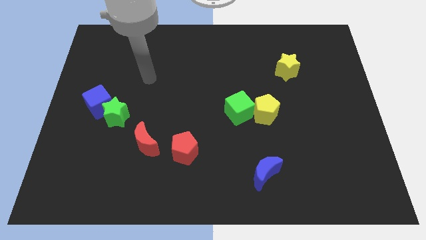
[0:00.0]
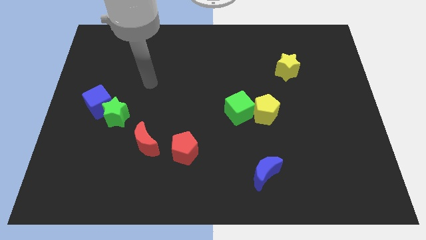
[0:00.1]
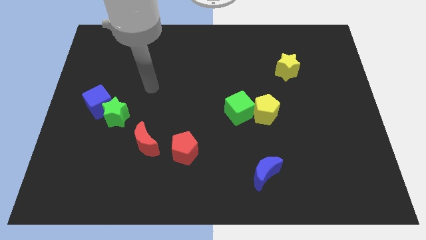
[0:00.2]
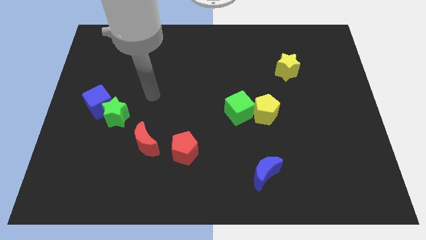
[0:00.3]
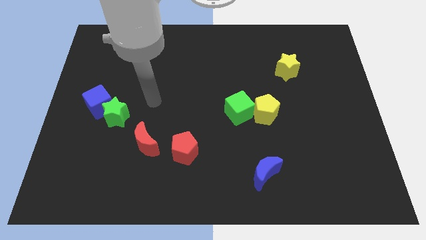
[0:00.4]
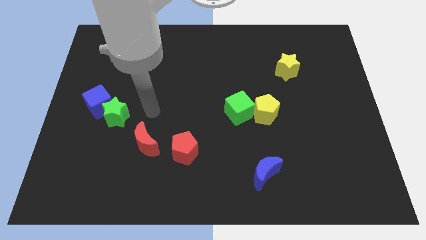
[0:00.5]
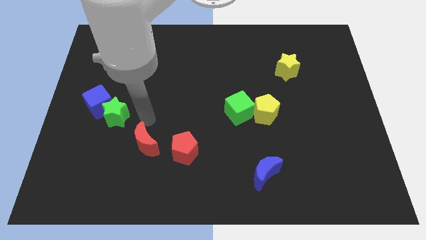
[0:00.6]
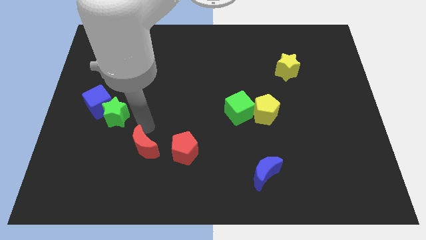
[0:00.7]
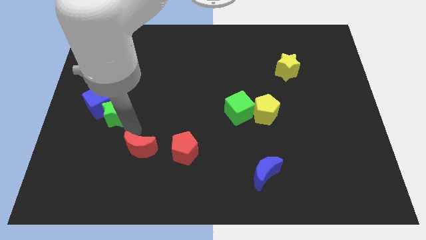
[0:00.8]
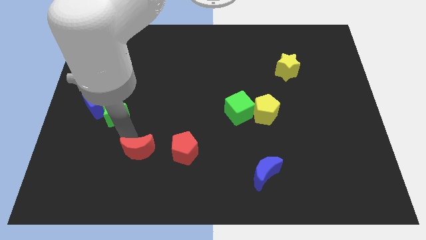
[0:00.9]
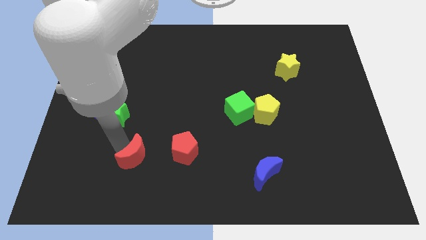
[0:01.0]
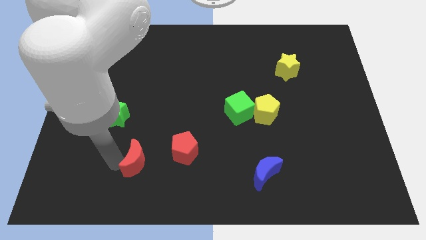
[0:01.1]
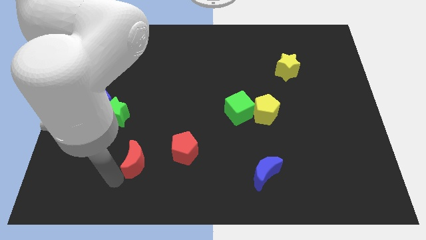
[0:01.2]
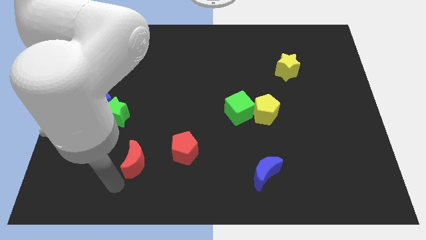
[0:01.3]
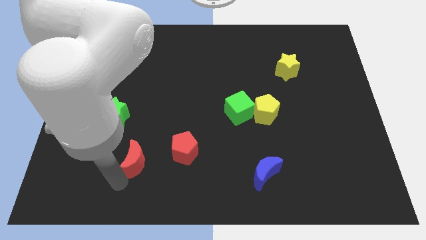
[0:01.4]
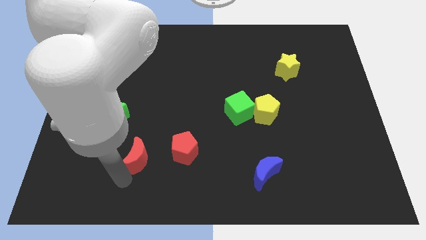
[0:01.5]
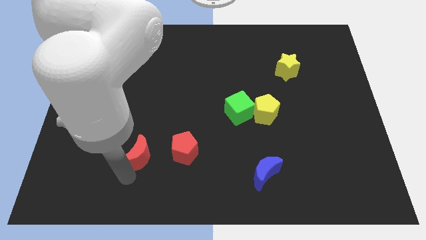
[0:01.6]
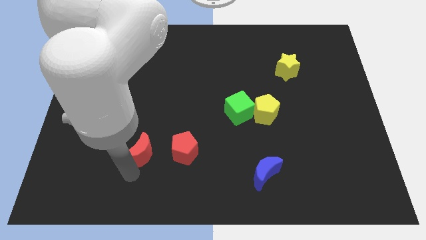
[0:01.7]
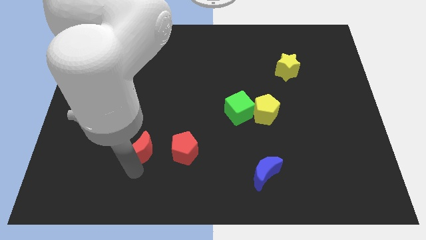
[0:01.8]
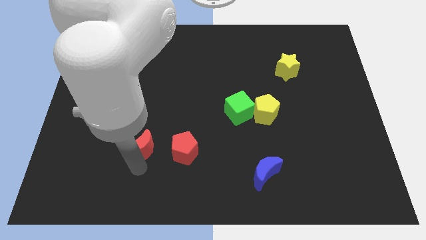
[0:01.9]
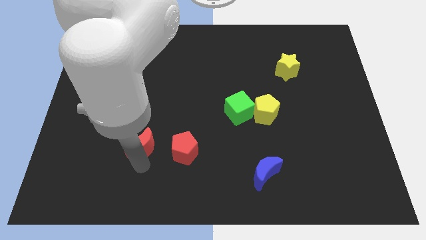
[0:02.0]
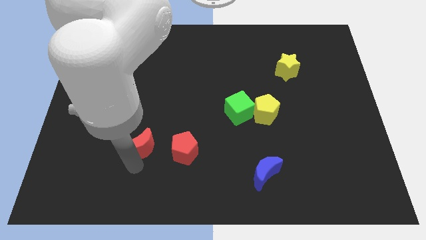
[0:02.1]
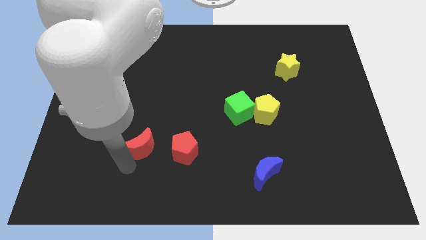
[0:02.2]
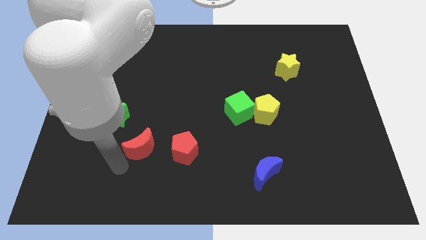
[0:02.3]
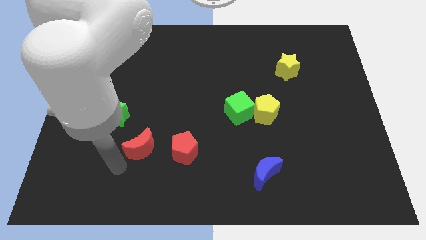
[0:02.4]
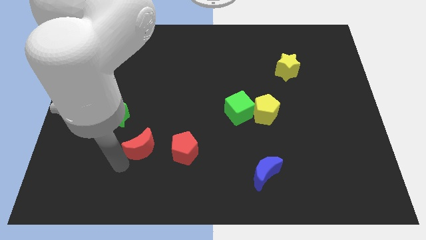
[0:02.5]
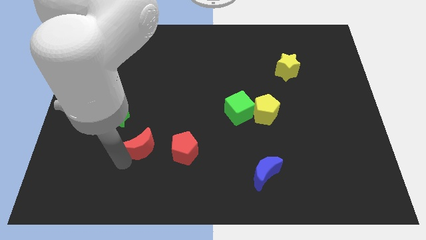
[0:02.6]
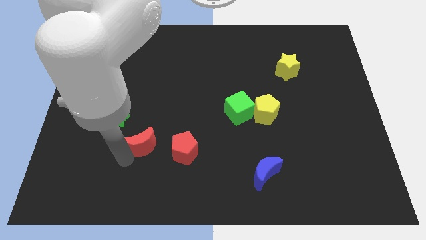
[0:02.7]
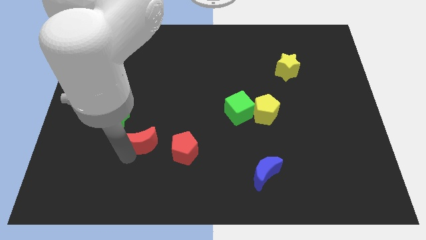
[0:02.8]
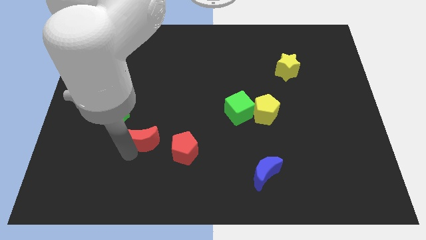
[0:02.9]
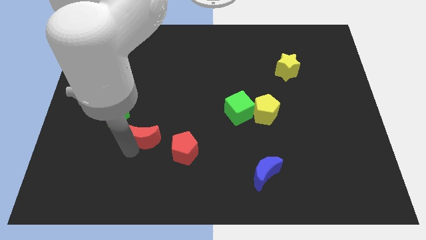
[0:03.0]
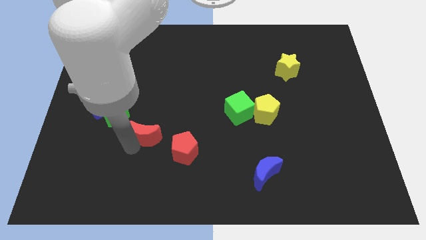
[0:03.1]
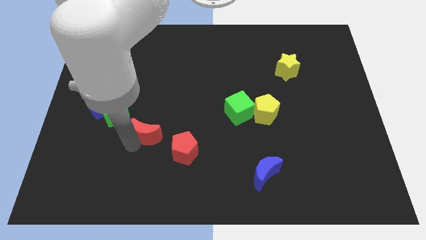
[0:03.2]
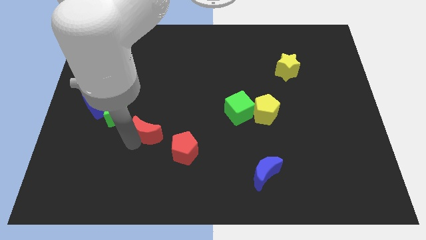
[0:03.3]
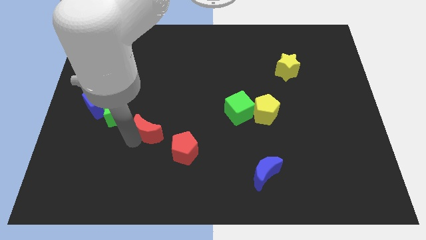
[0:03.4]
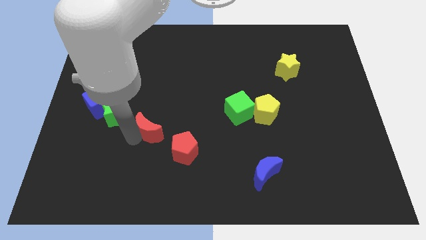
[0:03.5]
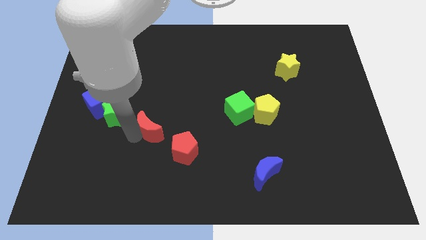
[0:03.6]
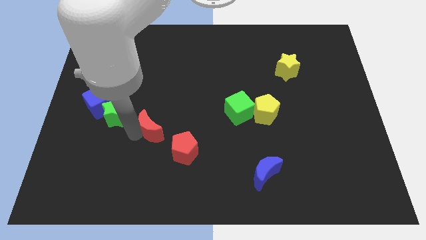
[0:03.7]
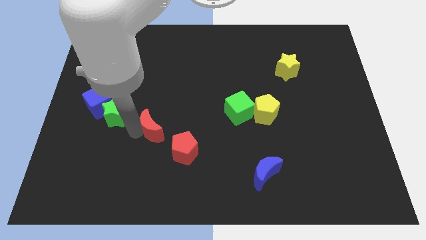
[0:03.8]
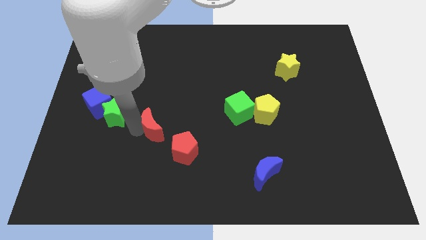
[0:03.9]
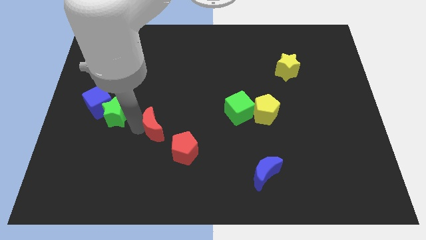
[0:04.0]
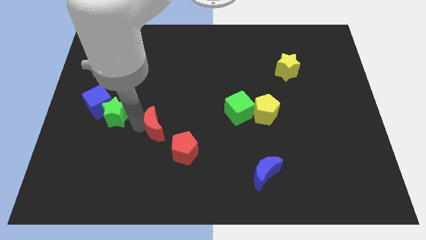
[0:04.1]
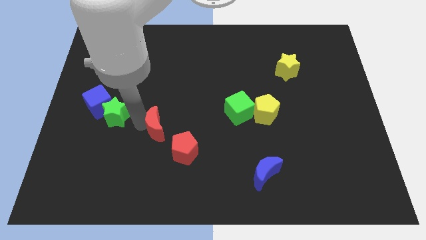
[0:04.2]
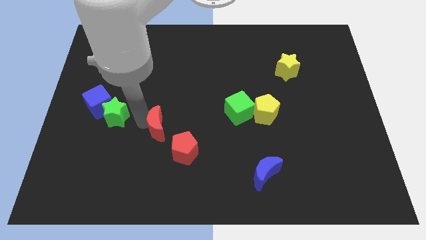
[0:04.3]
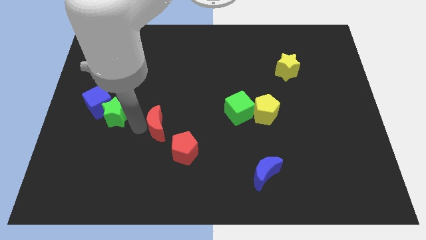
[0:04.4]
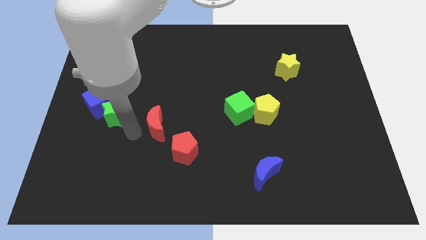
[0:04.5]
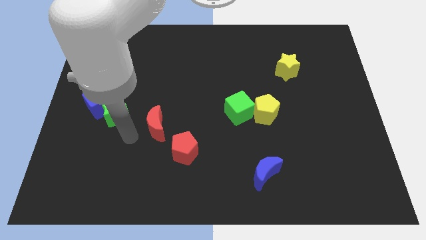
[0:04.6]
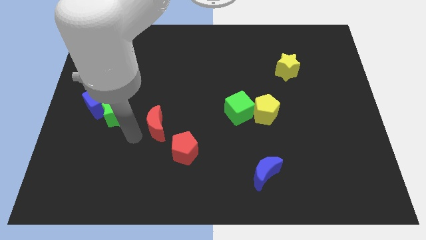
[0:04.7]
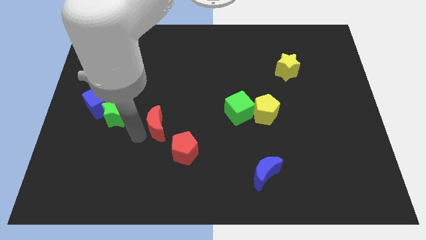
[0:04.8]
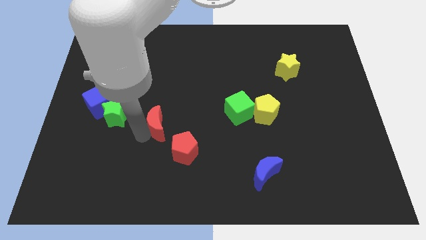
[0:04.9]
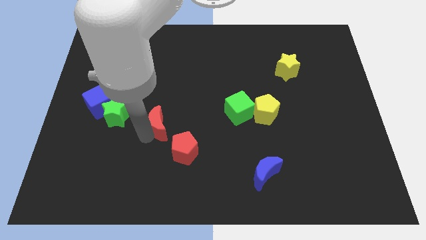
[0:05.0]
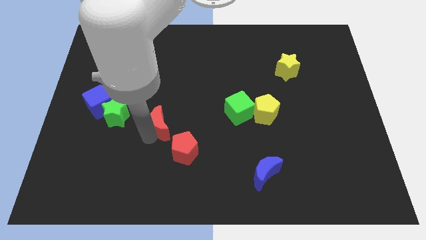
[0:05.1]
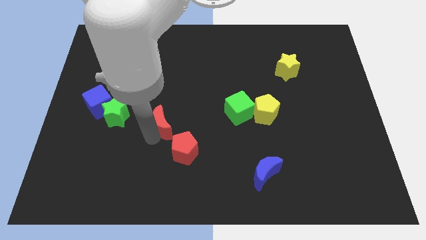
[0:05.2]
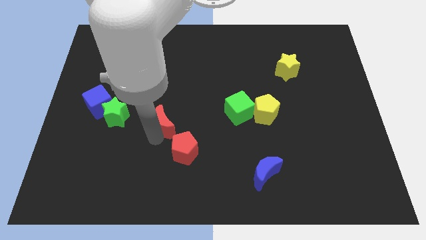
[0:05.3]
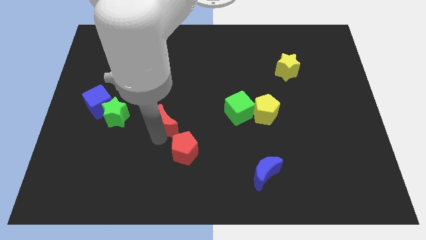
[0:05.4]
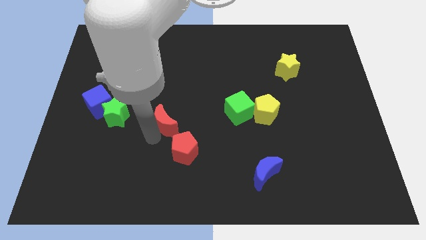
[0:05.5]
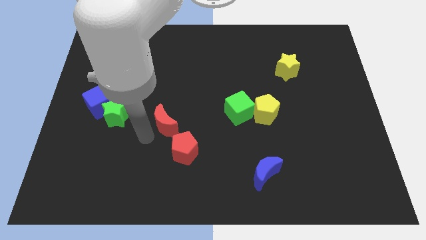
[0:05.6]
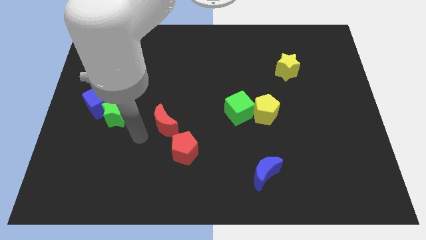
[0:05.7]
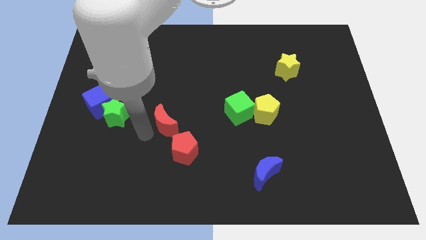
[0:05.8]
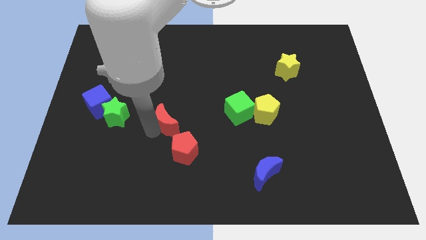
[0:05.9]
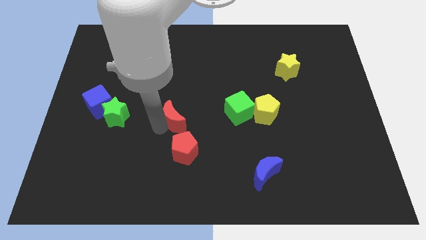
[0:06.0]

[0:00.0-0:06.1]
push the red moon somewhat up and to the right diagonally

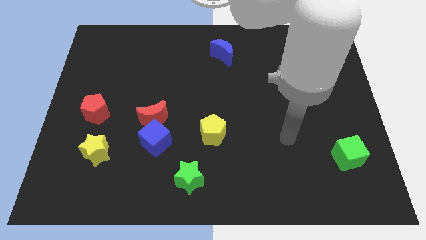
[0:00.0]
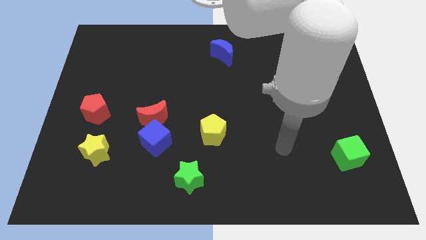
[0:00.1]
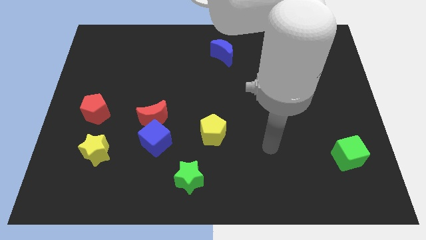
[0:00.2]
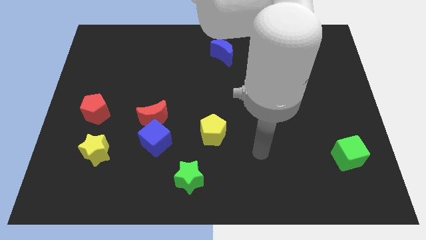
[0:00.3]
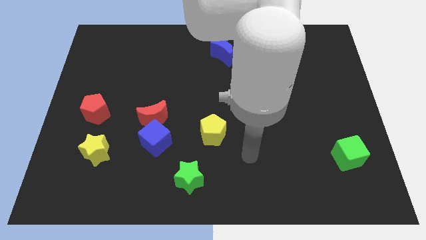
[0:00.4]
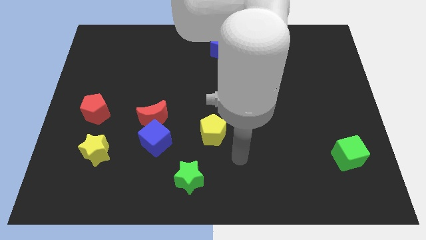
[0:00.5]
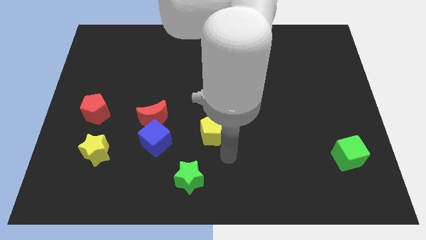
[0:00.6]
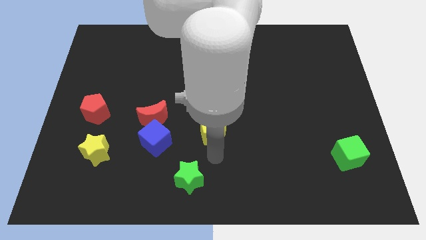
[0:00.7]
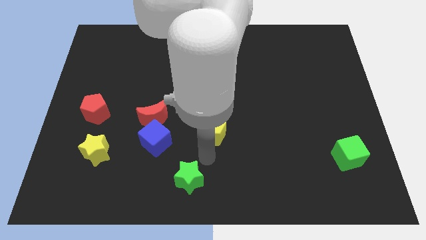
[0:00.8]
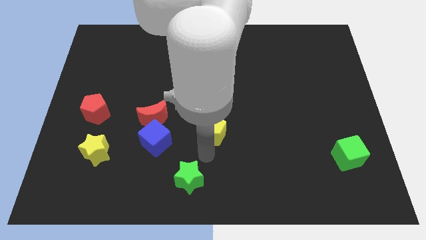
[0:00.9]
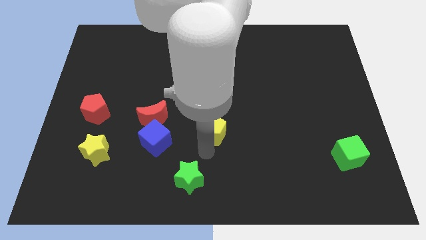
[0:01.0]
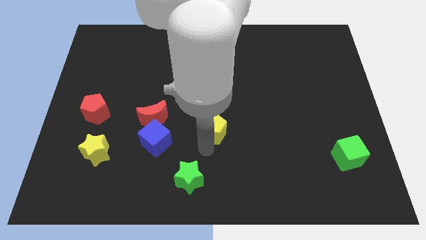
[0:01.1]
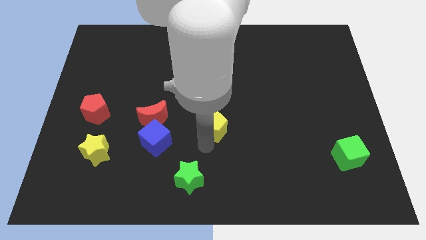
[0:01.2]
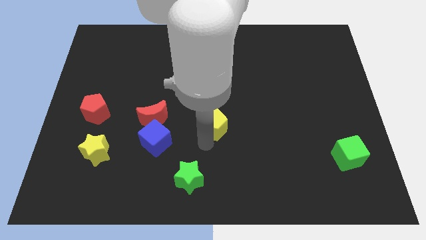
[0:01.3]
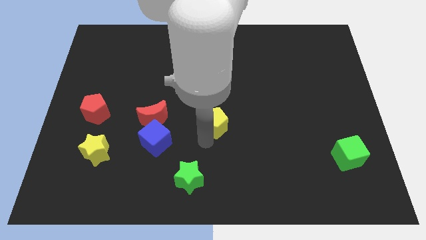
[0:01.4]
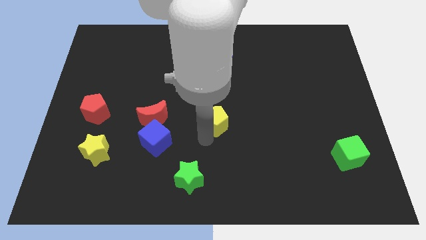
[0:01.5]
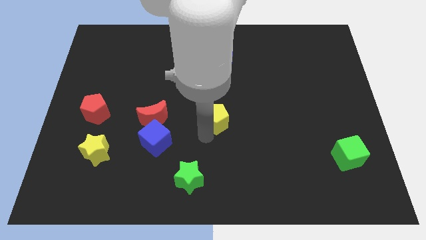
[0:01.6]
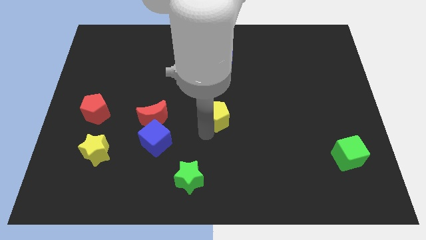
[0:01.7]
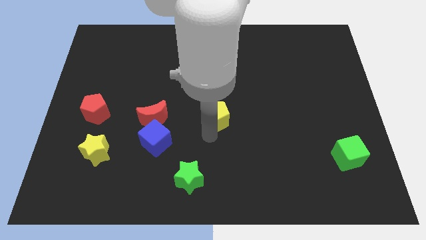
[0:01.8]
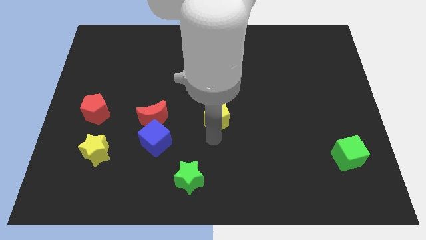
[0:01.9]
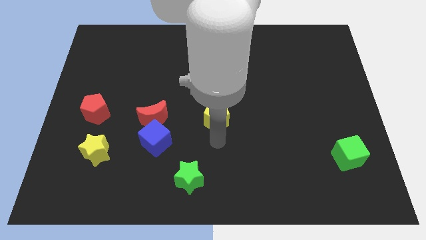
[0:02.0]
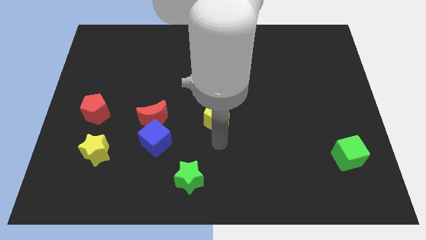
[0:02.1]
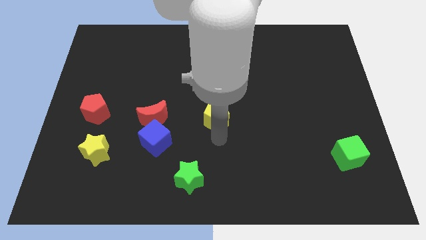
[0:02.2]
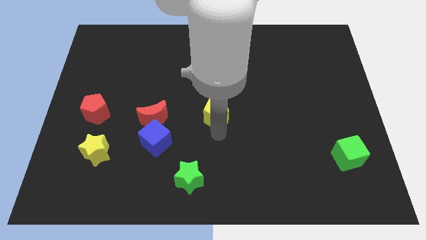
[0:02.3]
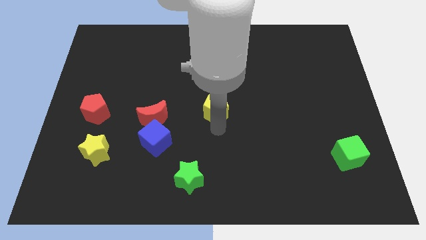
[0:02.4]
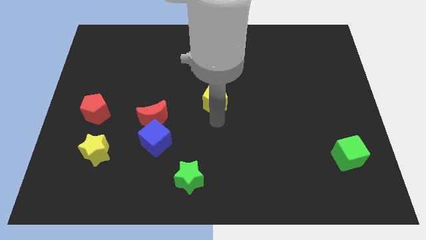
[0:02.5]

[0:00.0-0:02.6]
slide the yellow pentagon slightly up
